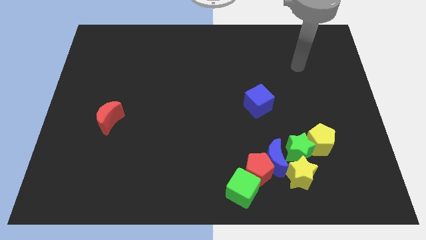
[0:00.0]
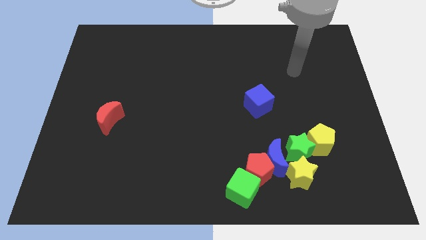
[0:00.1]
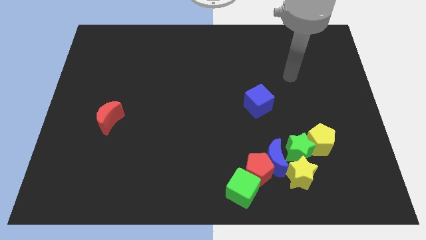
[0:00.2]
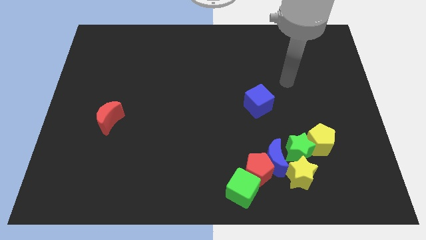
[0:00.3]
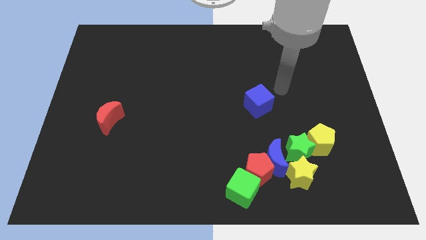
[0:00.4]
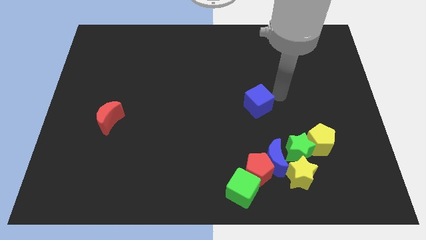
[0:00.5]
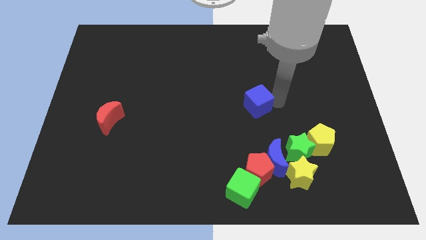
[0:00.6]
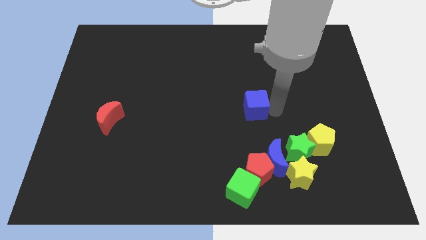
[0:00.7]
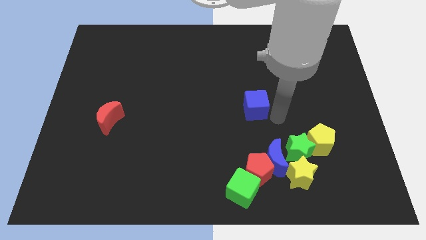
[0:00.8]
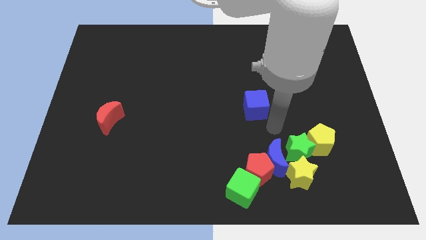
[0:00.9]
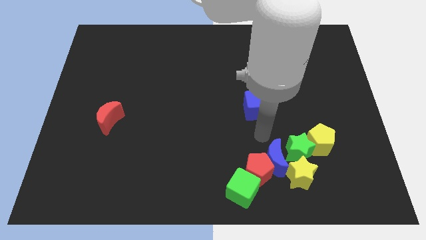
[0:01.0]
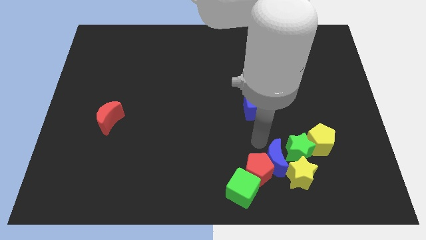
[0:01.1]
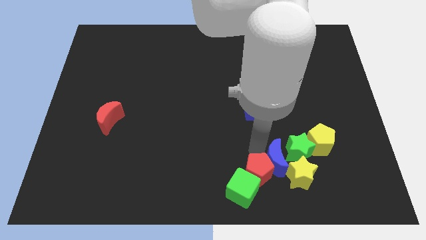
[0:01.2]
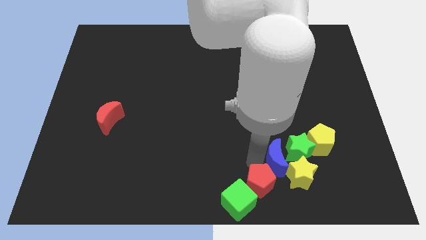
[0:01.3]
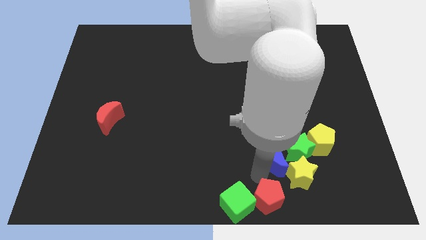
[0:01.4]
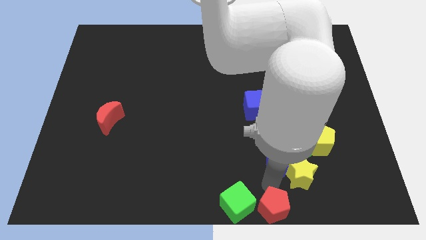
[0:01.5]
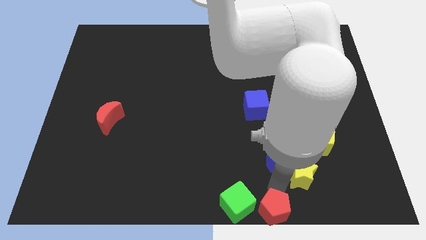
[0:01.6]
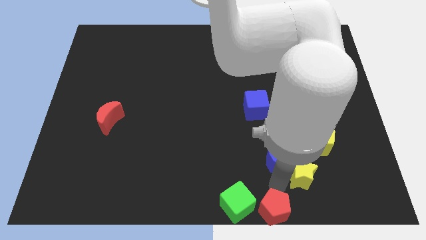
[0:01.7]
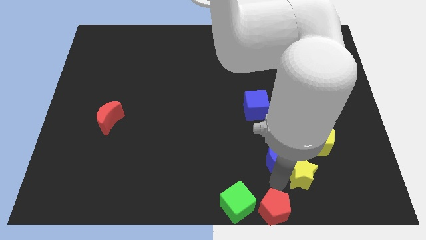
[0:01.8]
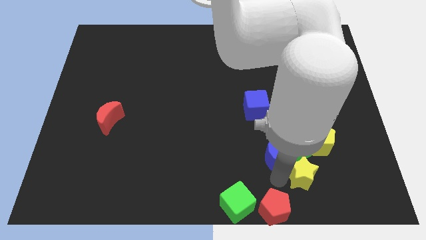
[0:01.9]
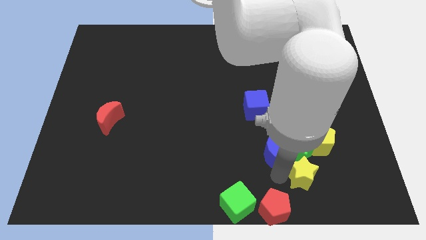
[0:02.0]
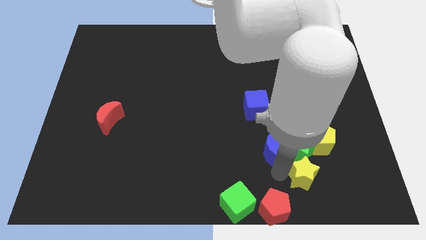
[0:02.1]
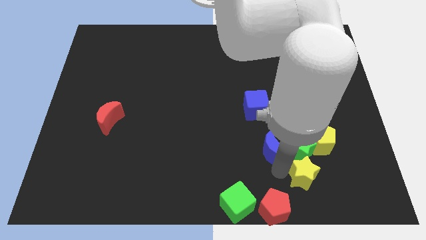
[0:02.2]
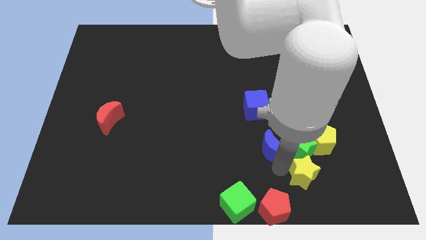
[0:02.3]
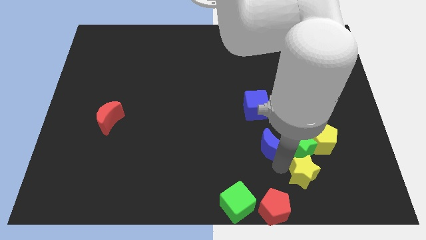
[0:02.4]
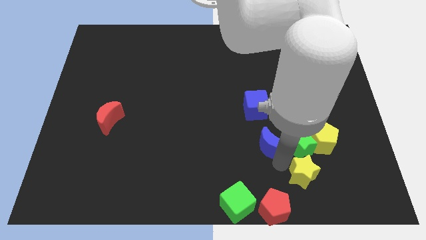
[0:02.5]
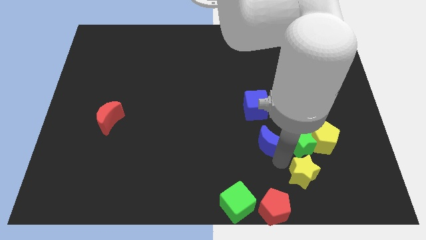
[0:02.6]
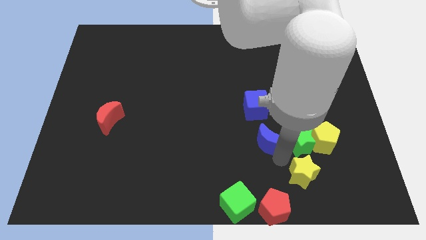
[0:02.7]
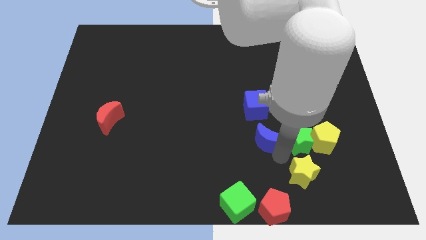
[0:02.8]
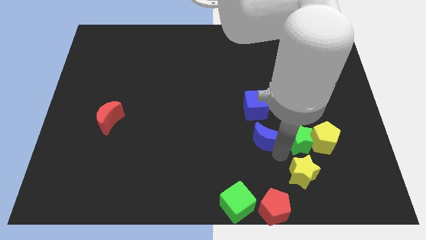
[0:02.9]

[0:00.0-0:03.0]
pull the blue moon apart from the group

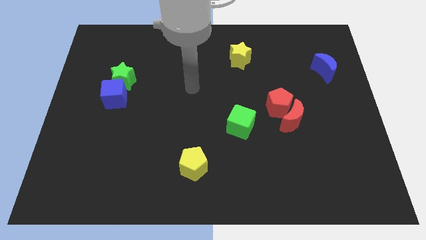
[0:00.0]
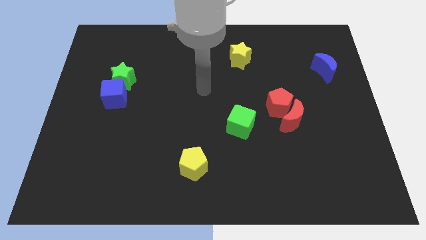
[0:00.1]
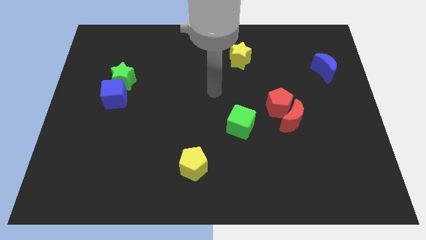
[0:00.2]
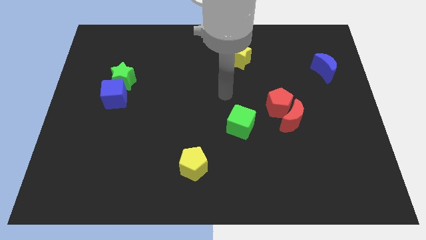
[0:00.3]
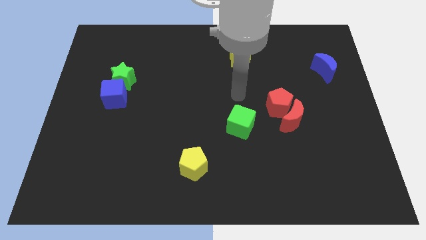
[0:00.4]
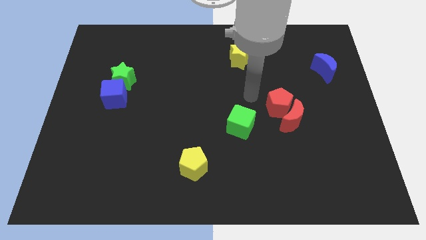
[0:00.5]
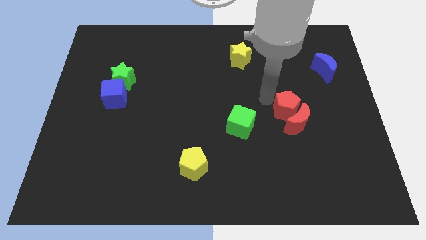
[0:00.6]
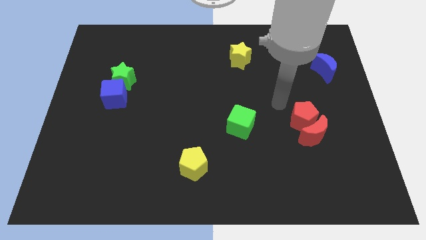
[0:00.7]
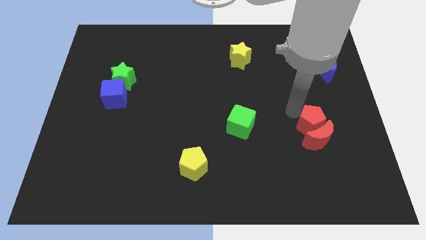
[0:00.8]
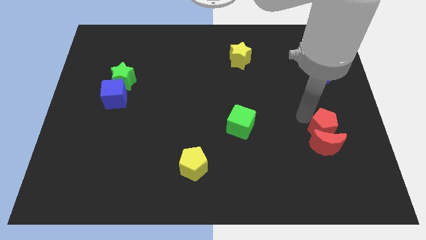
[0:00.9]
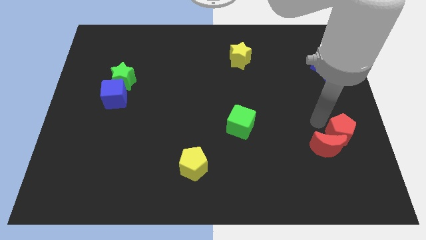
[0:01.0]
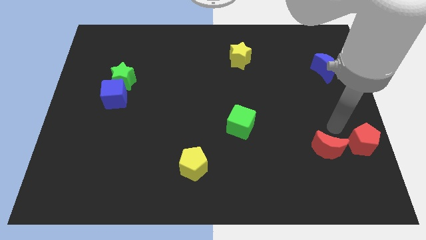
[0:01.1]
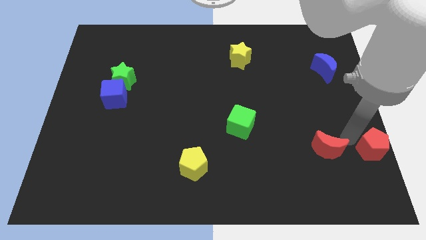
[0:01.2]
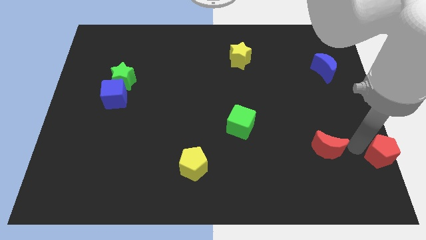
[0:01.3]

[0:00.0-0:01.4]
separate the red moon from the red pentagon

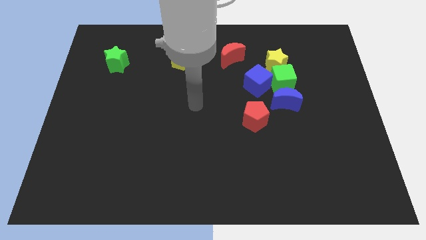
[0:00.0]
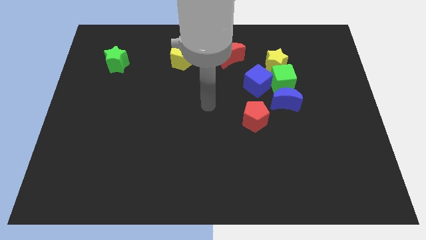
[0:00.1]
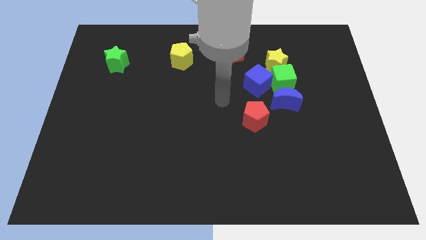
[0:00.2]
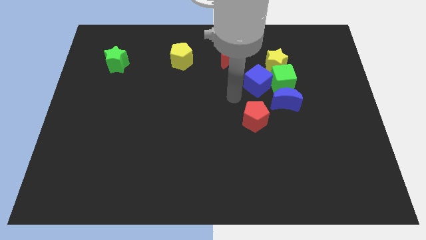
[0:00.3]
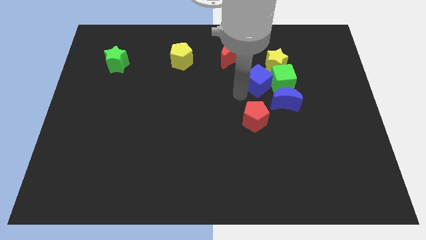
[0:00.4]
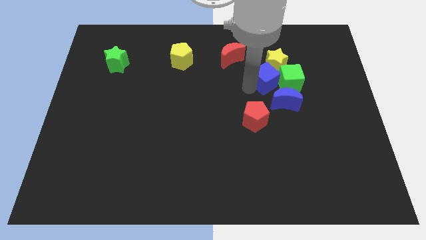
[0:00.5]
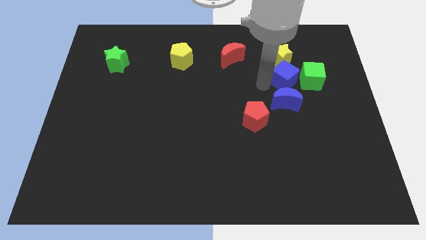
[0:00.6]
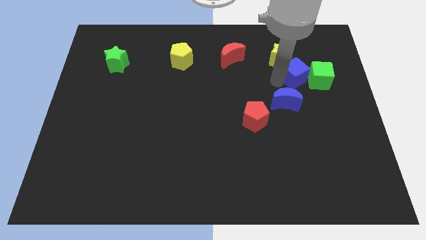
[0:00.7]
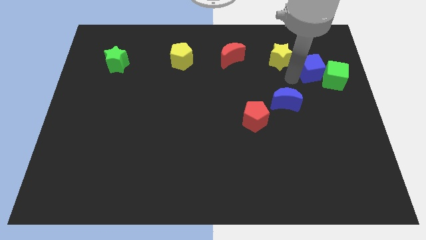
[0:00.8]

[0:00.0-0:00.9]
separate the green cube from the group of blocks

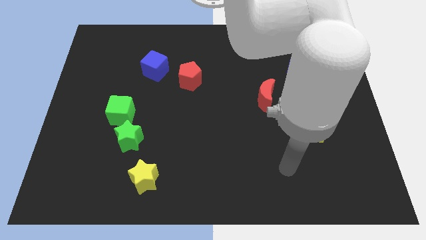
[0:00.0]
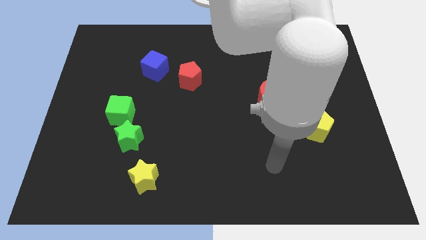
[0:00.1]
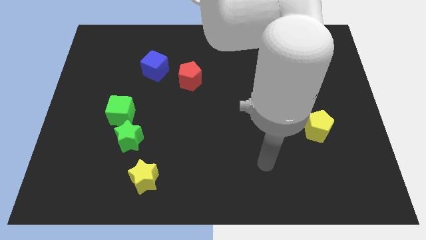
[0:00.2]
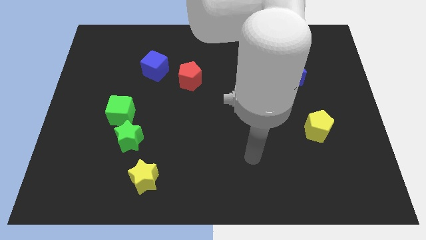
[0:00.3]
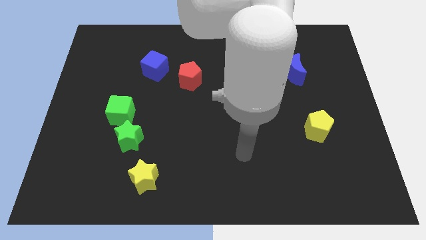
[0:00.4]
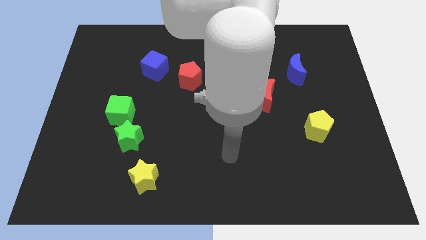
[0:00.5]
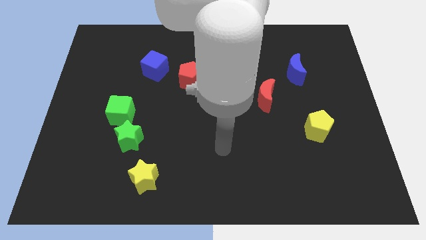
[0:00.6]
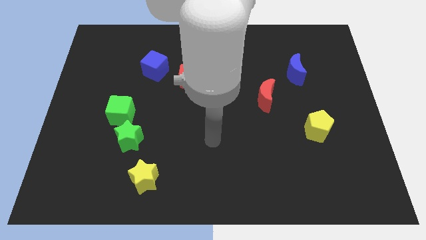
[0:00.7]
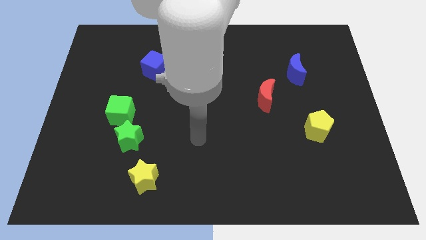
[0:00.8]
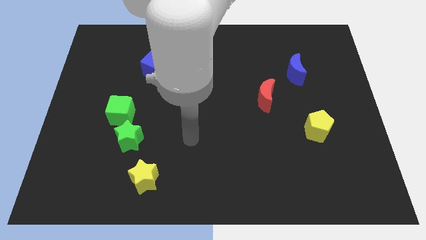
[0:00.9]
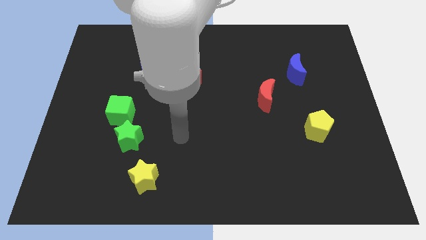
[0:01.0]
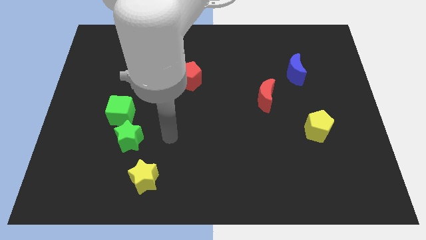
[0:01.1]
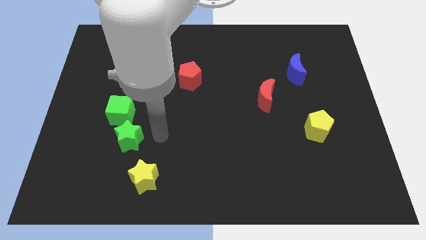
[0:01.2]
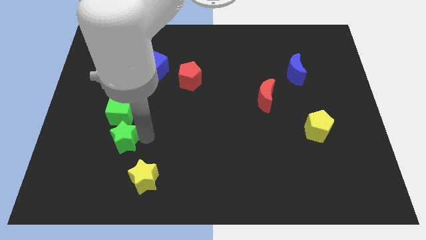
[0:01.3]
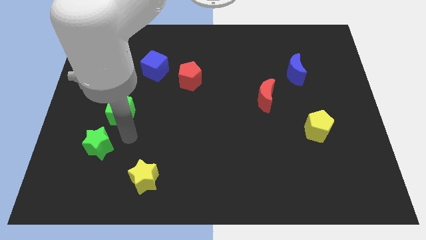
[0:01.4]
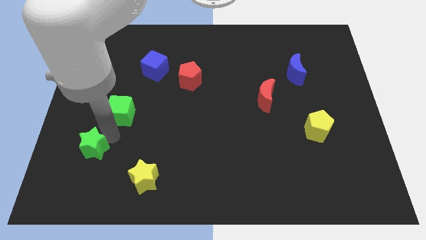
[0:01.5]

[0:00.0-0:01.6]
move the green cube away from the green star

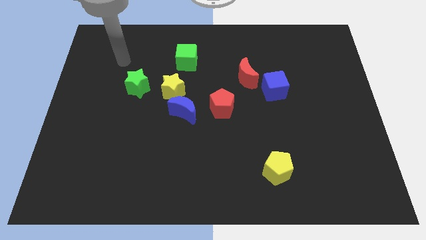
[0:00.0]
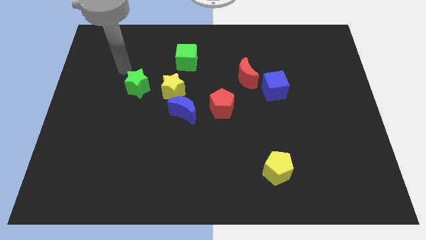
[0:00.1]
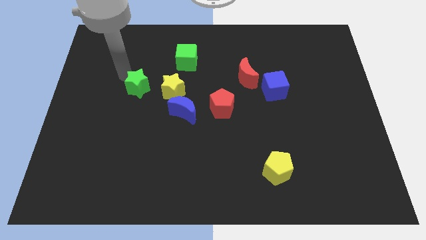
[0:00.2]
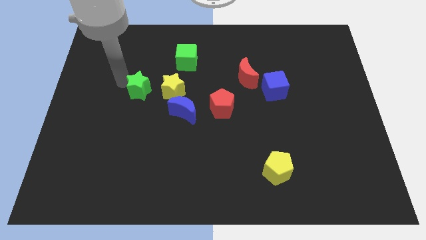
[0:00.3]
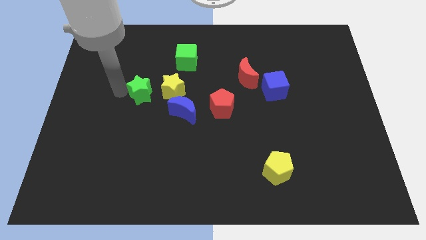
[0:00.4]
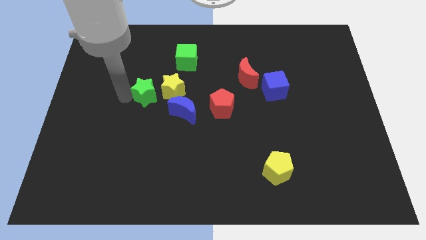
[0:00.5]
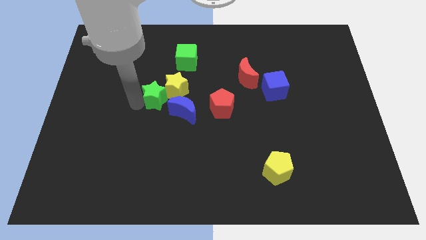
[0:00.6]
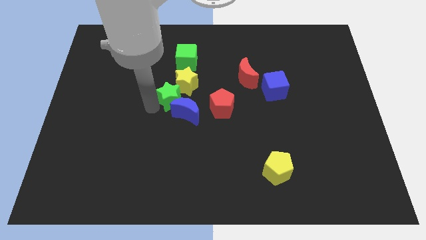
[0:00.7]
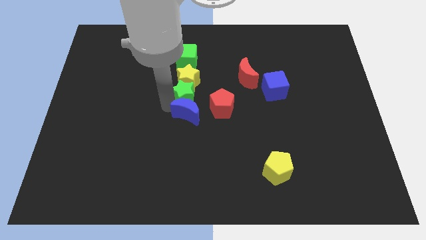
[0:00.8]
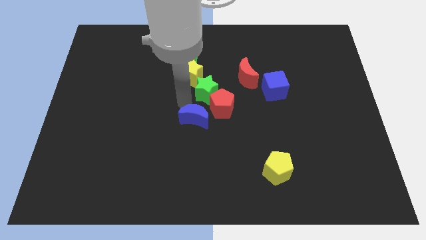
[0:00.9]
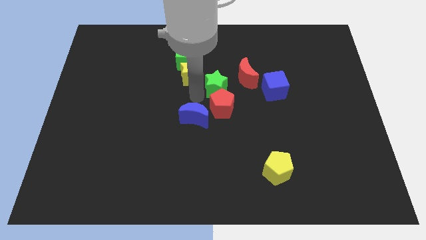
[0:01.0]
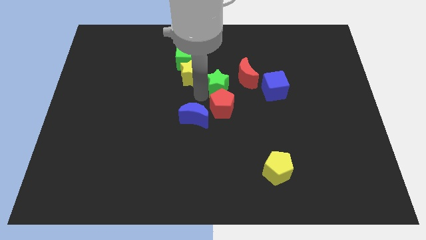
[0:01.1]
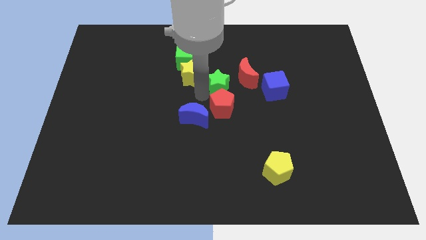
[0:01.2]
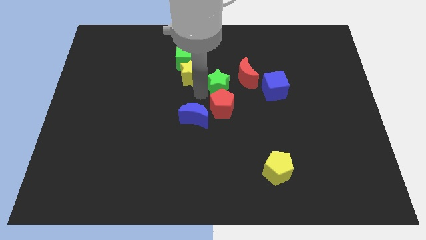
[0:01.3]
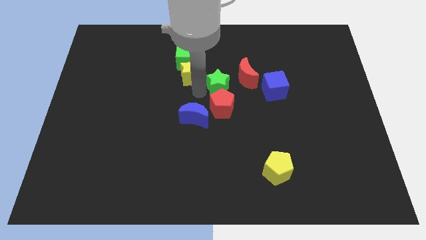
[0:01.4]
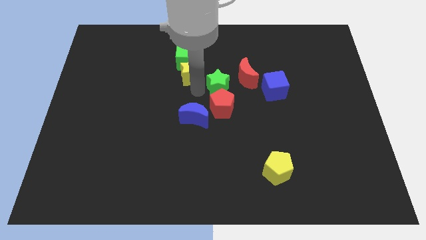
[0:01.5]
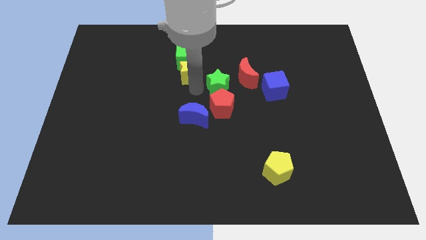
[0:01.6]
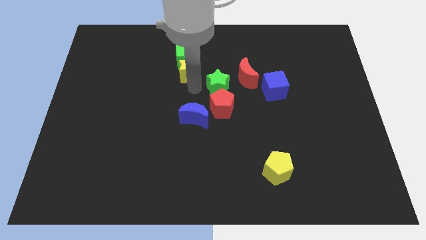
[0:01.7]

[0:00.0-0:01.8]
pull the yellow star apart from the blue moon and green star

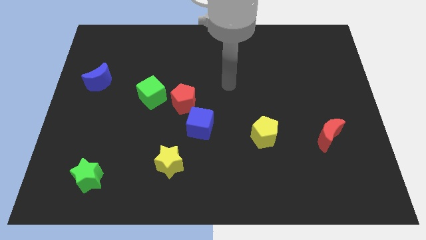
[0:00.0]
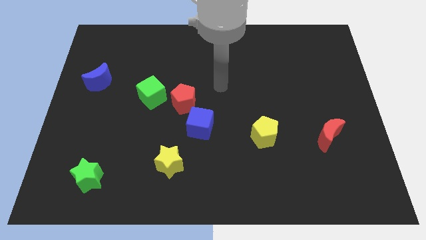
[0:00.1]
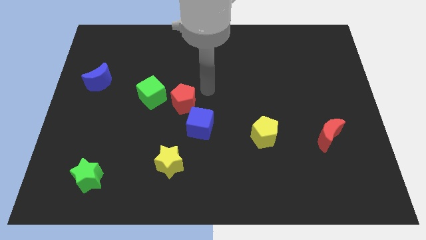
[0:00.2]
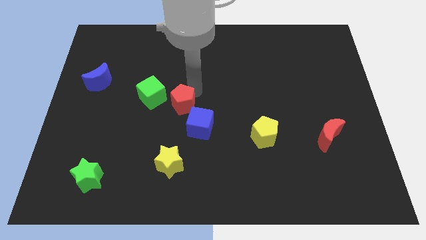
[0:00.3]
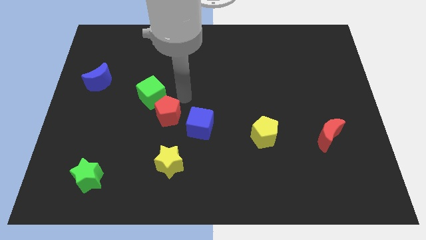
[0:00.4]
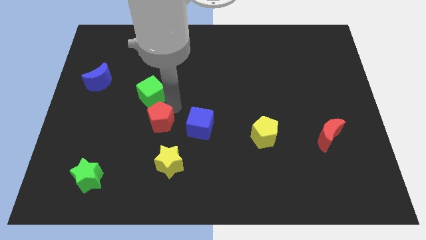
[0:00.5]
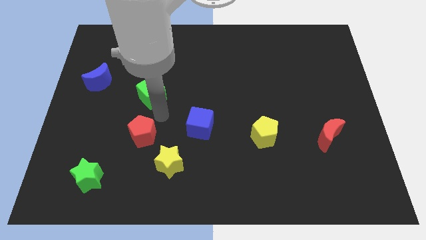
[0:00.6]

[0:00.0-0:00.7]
separate the green cube from the red pentagon
